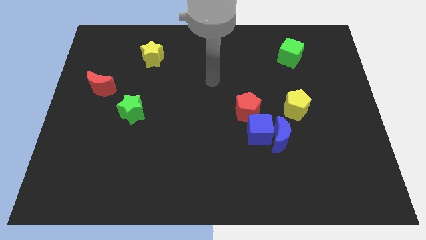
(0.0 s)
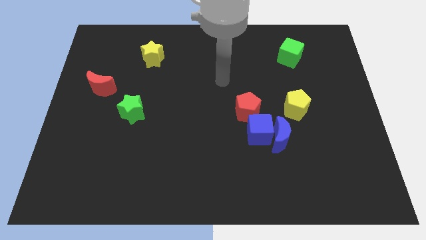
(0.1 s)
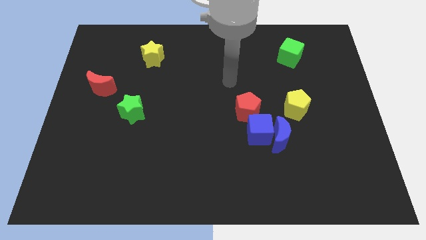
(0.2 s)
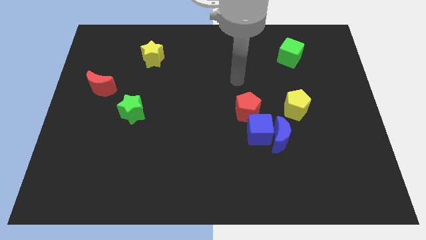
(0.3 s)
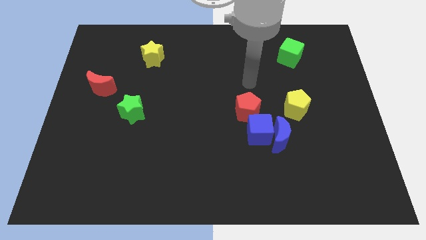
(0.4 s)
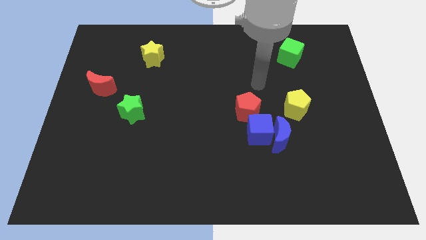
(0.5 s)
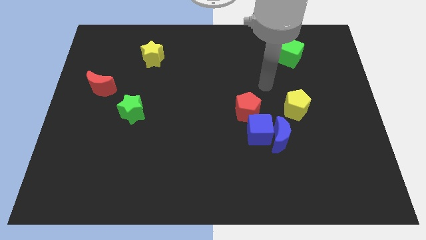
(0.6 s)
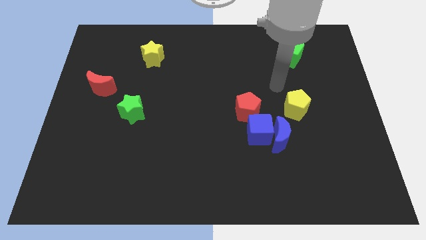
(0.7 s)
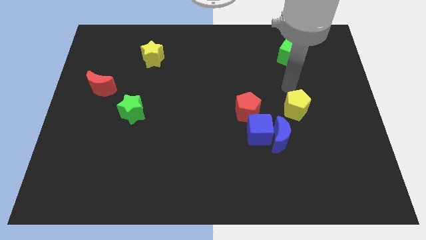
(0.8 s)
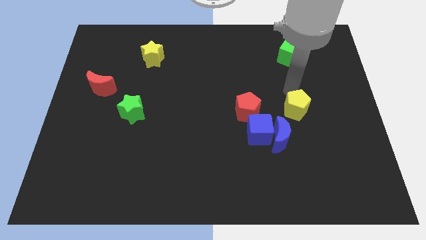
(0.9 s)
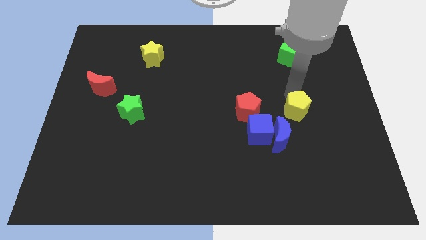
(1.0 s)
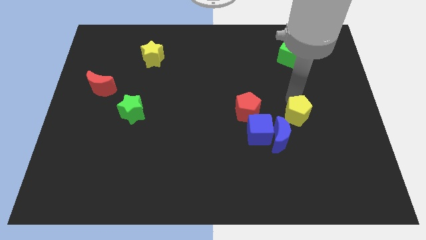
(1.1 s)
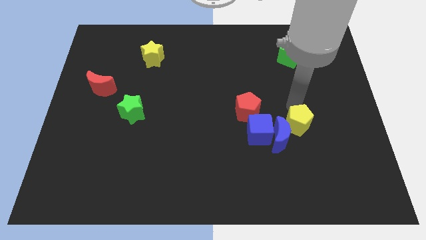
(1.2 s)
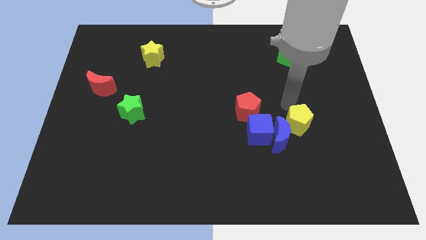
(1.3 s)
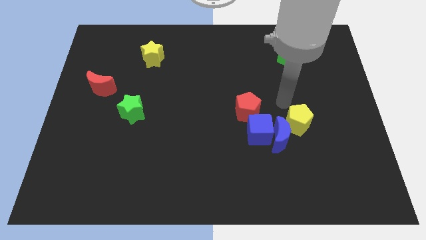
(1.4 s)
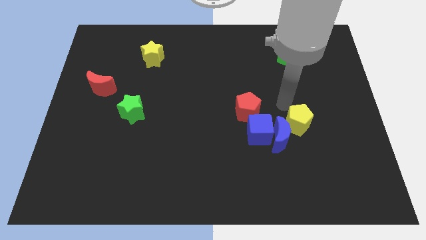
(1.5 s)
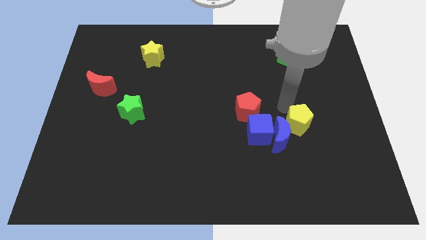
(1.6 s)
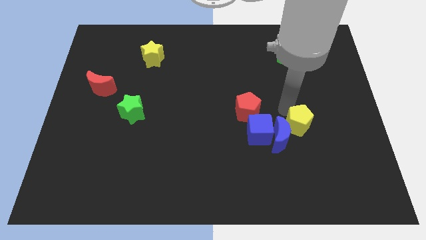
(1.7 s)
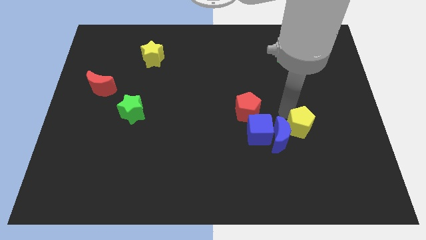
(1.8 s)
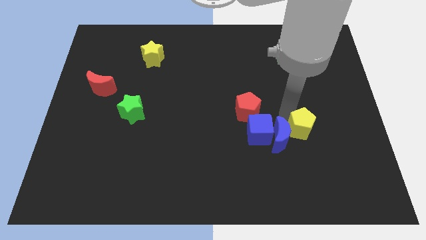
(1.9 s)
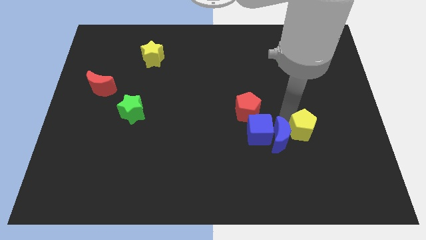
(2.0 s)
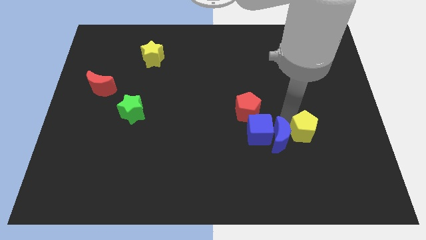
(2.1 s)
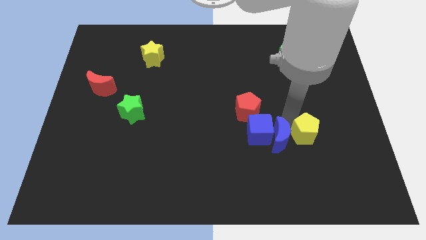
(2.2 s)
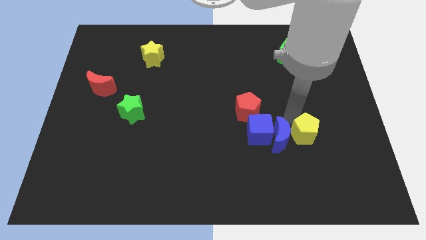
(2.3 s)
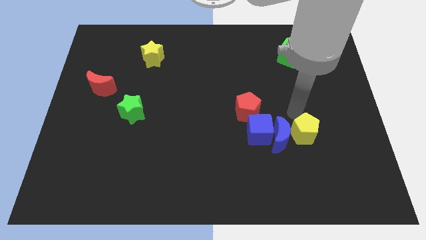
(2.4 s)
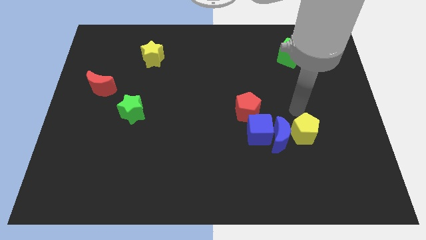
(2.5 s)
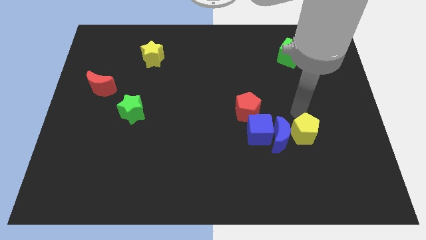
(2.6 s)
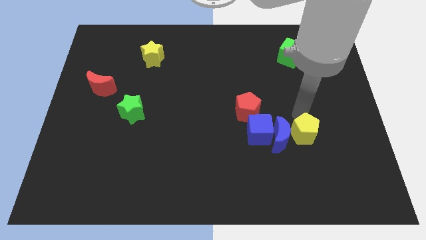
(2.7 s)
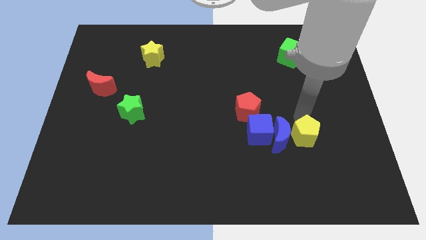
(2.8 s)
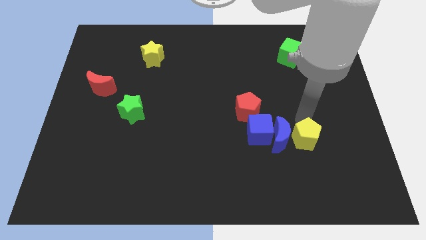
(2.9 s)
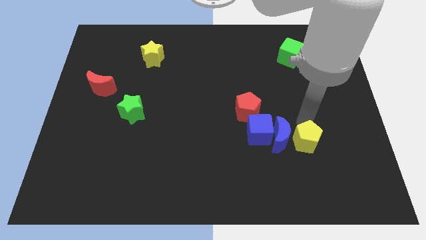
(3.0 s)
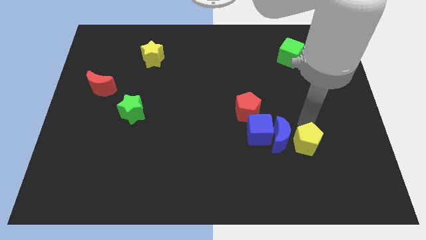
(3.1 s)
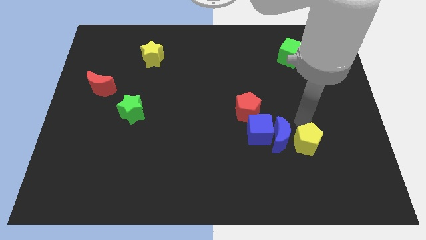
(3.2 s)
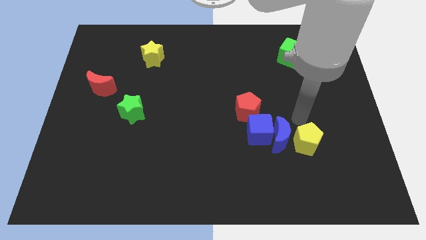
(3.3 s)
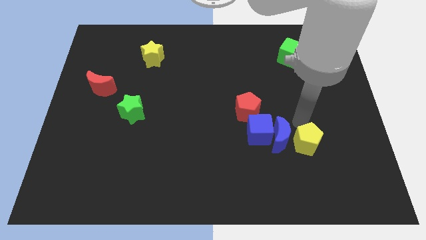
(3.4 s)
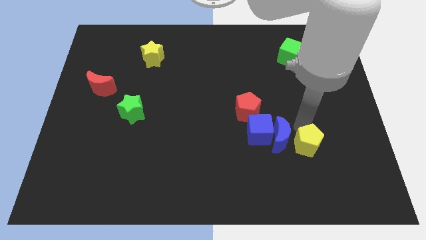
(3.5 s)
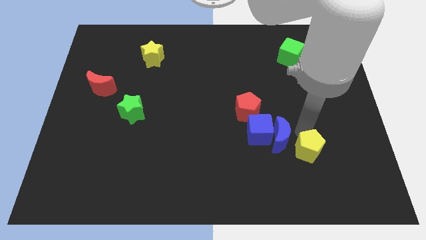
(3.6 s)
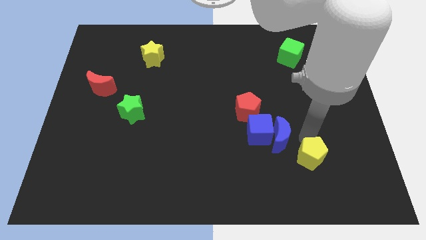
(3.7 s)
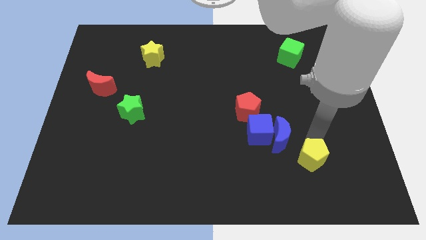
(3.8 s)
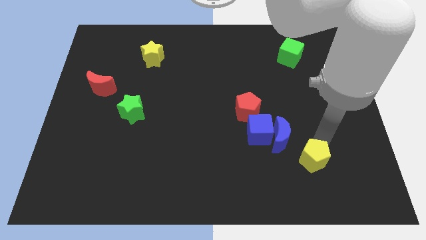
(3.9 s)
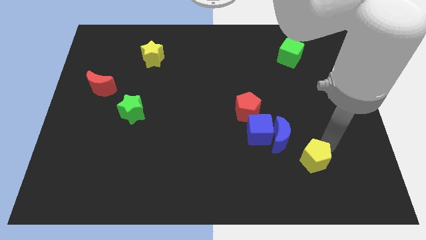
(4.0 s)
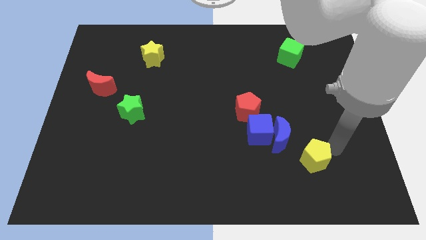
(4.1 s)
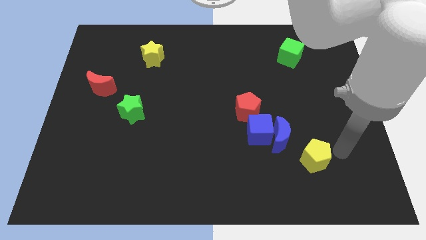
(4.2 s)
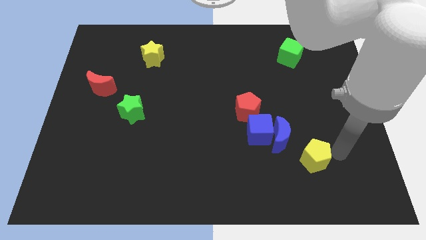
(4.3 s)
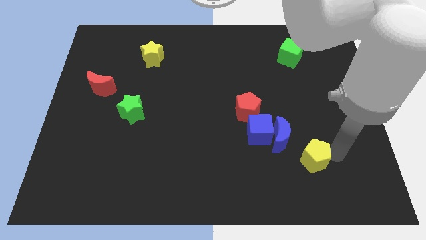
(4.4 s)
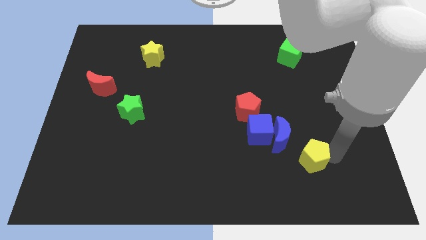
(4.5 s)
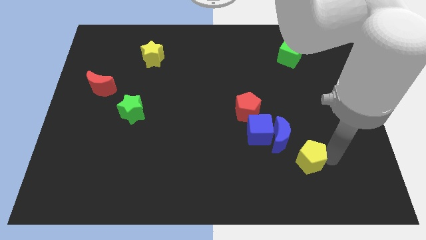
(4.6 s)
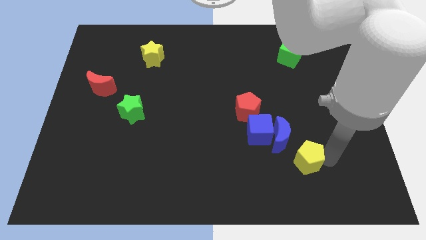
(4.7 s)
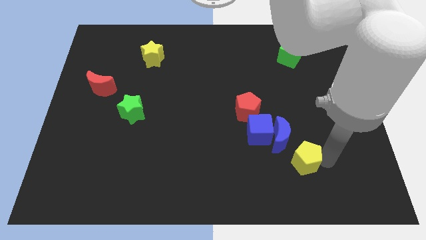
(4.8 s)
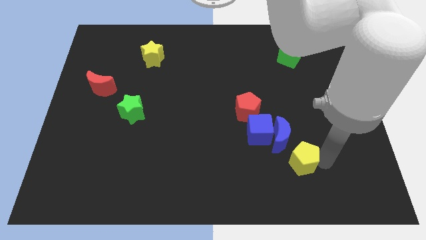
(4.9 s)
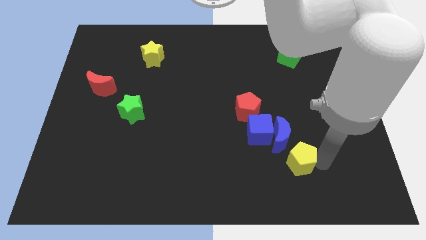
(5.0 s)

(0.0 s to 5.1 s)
push the yellow pentagon downwards and then left somewhat

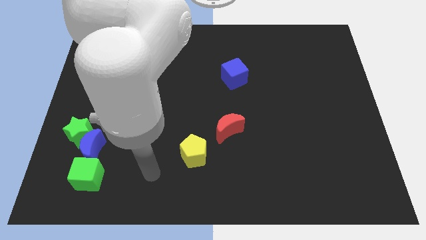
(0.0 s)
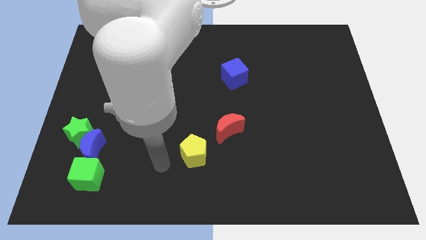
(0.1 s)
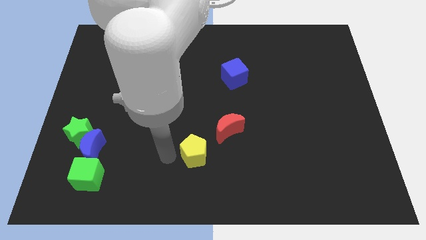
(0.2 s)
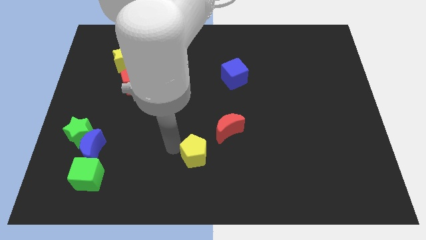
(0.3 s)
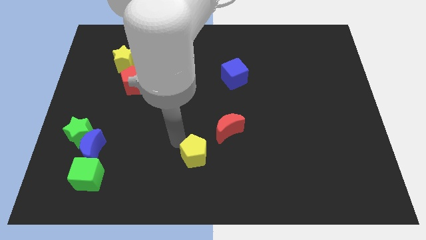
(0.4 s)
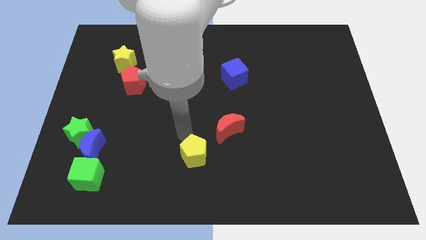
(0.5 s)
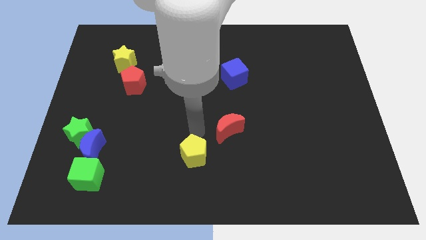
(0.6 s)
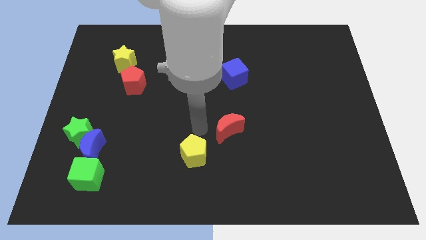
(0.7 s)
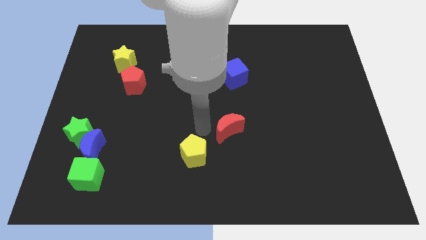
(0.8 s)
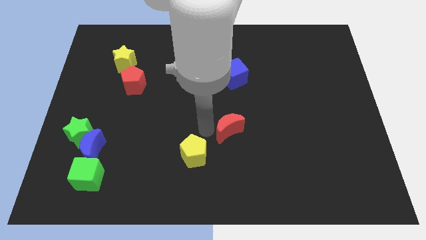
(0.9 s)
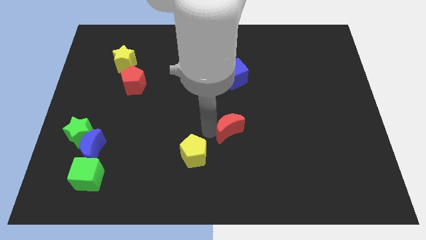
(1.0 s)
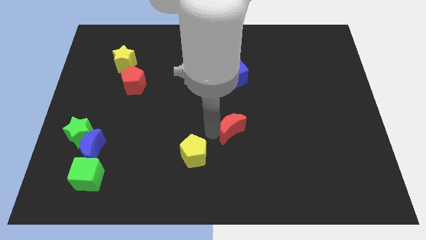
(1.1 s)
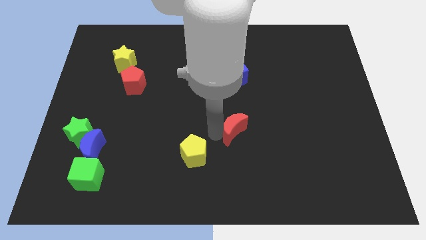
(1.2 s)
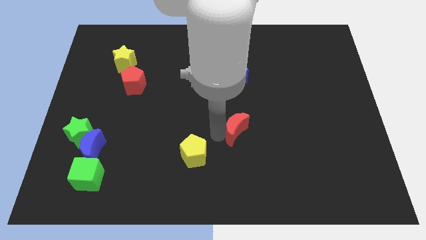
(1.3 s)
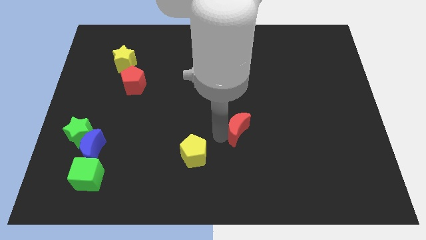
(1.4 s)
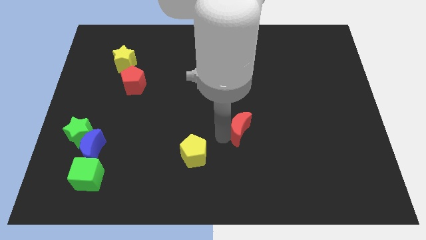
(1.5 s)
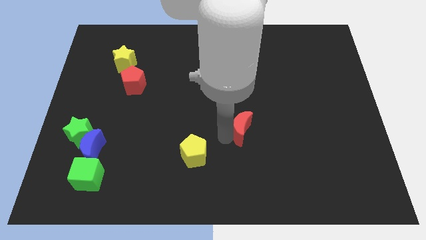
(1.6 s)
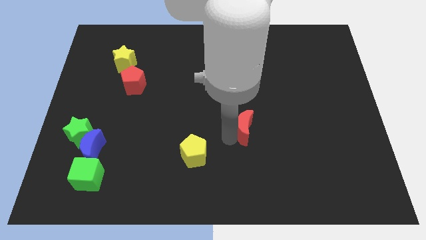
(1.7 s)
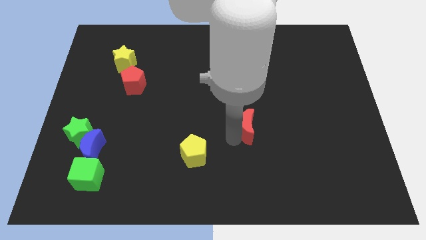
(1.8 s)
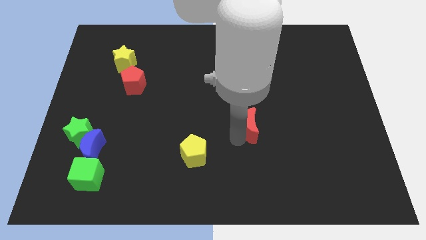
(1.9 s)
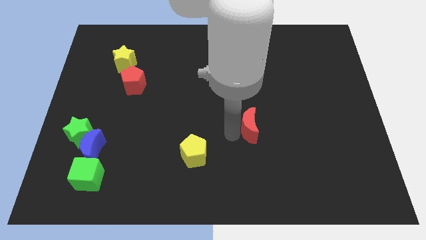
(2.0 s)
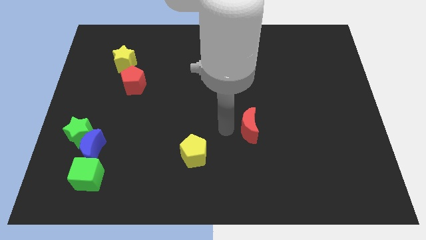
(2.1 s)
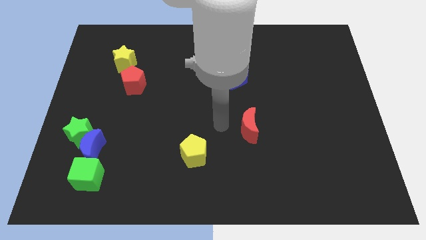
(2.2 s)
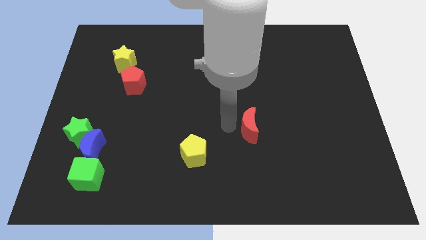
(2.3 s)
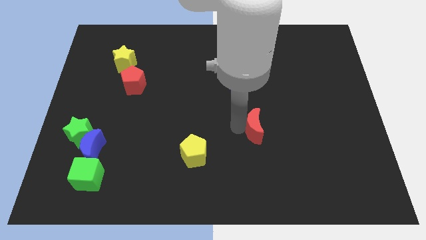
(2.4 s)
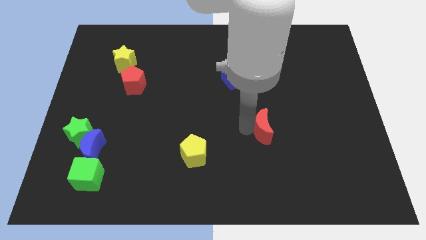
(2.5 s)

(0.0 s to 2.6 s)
slide the red moon a little bit to the right
